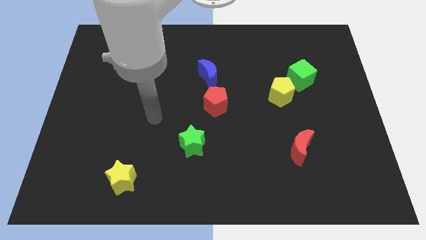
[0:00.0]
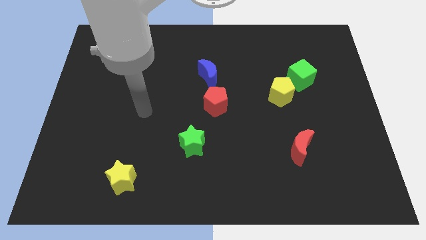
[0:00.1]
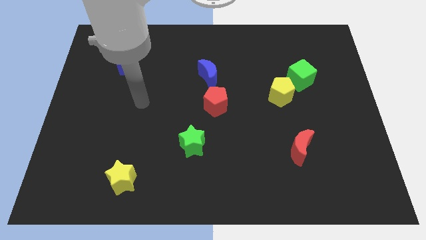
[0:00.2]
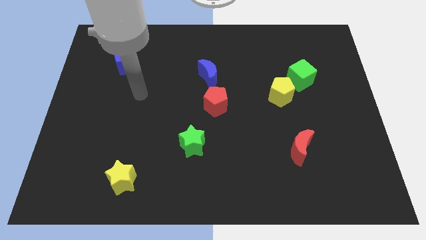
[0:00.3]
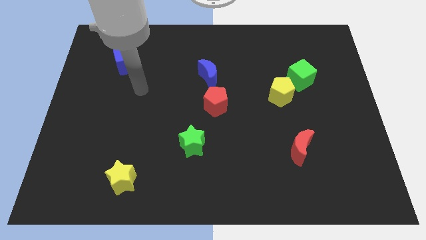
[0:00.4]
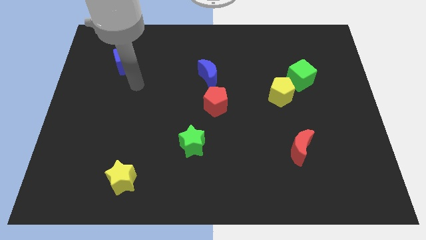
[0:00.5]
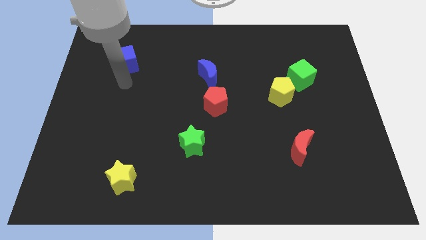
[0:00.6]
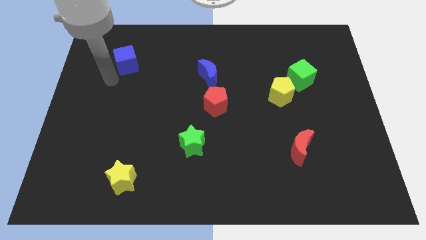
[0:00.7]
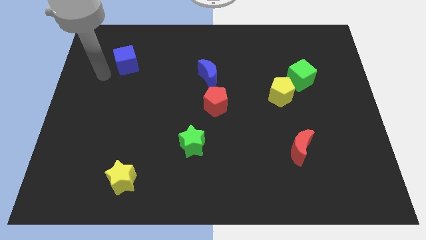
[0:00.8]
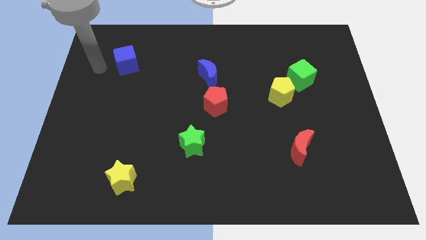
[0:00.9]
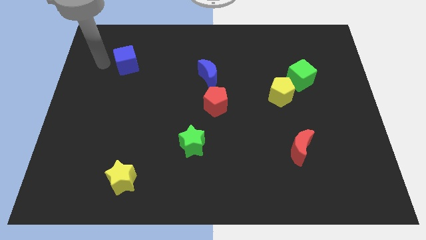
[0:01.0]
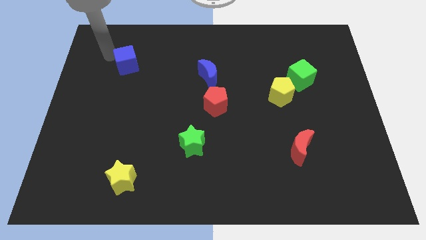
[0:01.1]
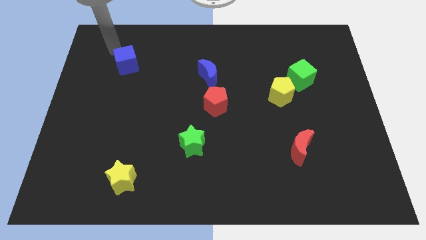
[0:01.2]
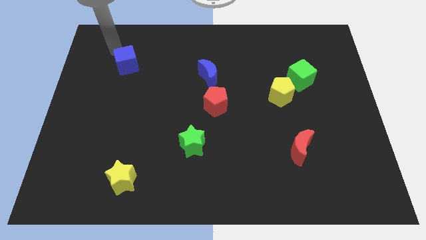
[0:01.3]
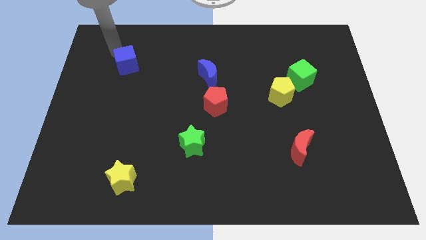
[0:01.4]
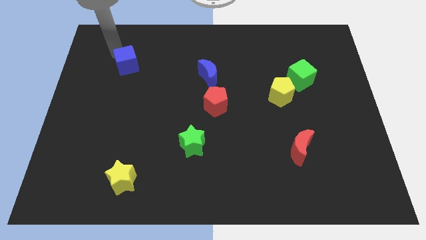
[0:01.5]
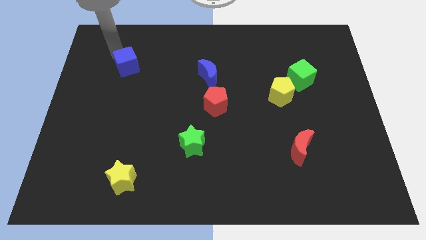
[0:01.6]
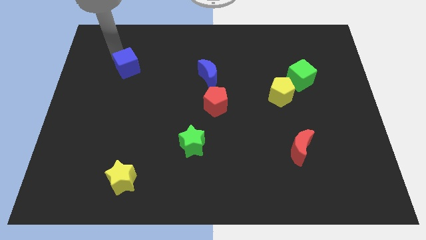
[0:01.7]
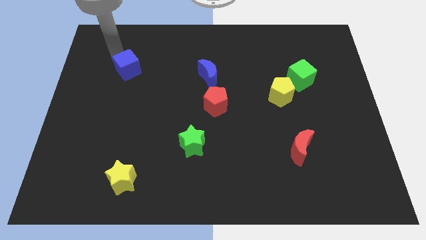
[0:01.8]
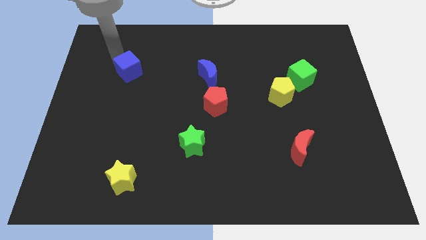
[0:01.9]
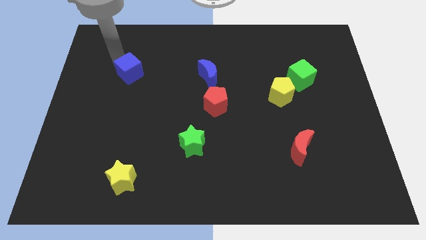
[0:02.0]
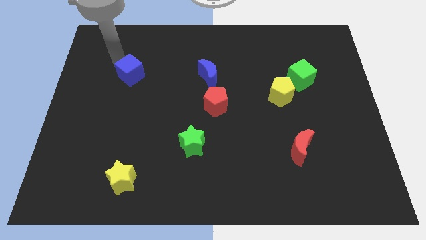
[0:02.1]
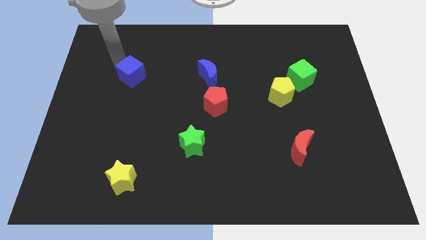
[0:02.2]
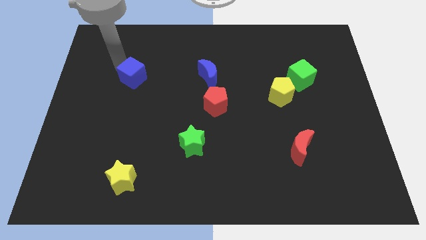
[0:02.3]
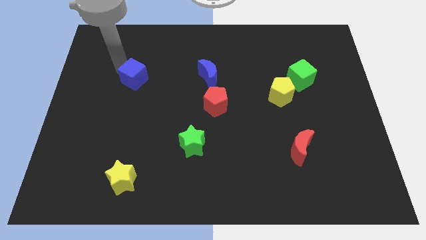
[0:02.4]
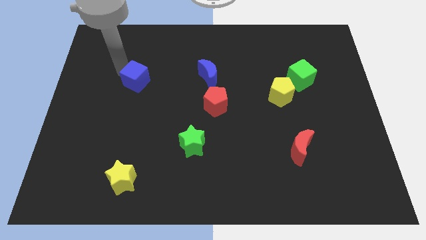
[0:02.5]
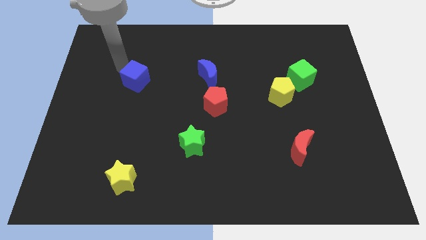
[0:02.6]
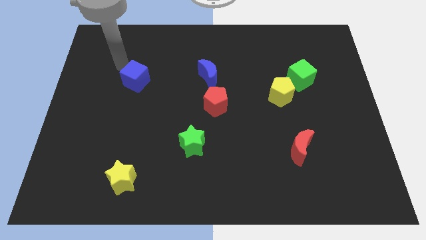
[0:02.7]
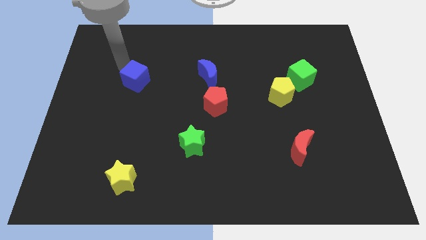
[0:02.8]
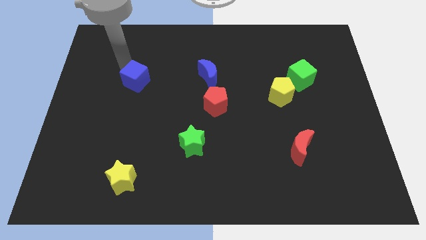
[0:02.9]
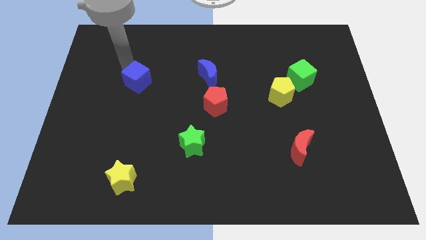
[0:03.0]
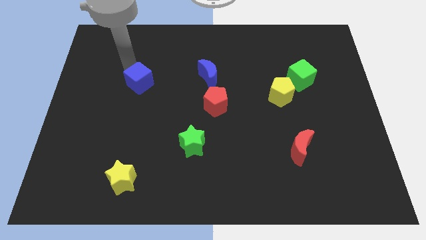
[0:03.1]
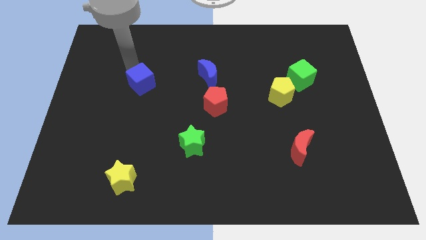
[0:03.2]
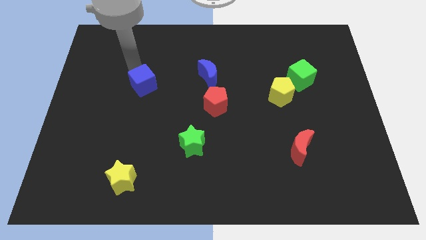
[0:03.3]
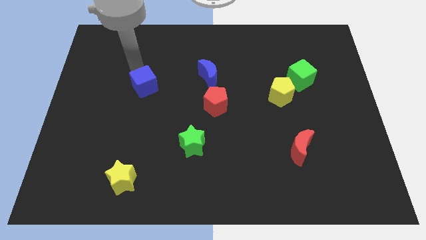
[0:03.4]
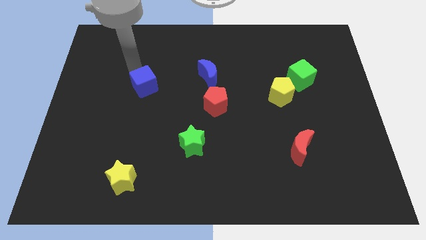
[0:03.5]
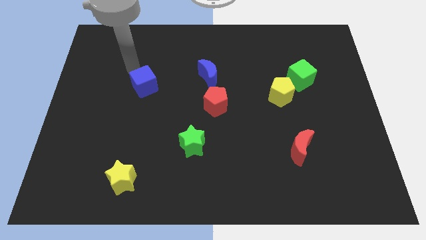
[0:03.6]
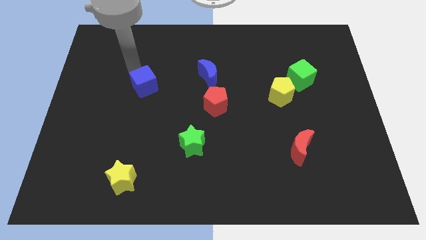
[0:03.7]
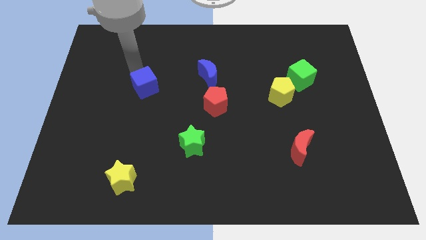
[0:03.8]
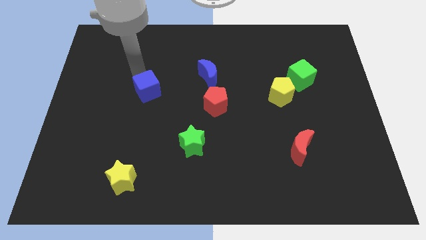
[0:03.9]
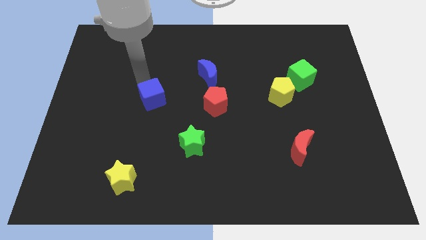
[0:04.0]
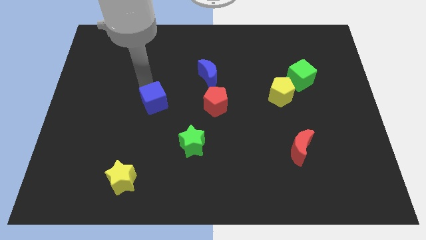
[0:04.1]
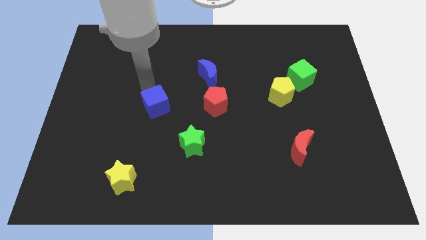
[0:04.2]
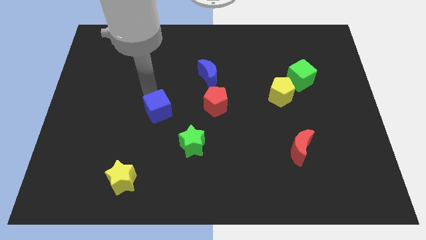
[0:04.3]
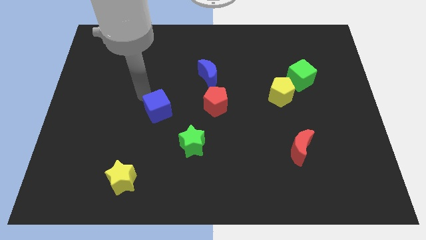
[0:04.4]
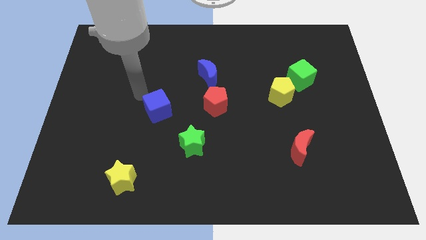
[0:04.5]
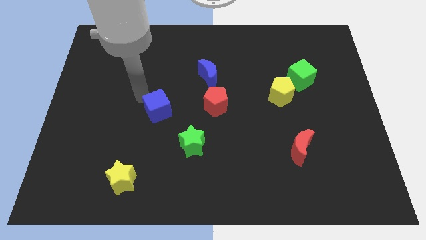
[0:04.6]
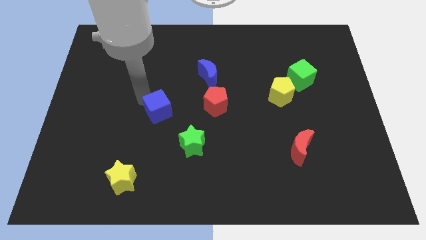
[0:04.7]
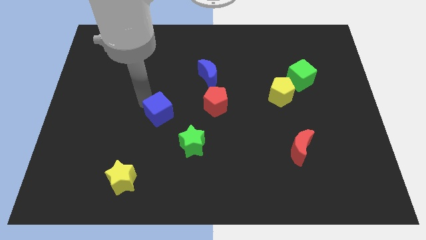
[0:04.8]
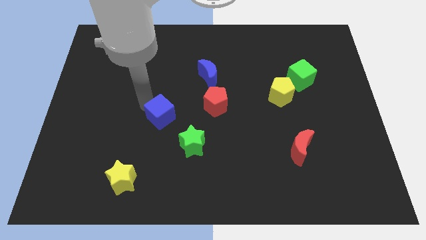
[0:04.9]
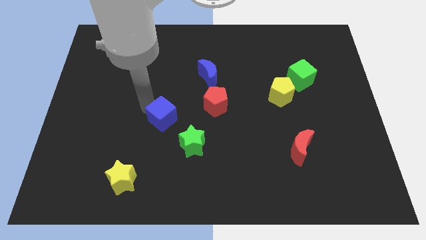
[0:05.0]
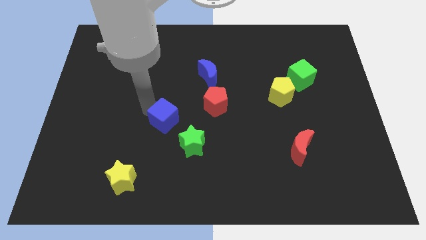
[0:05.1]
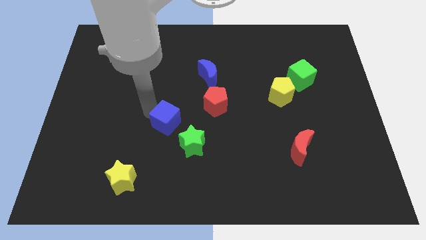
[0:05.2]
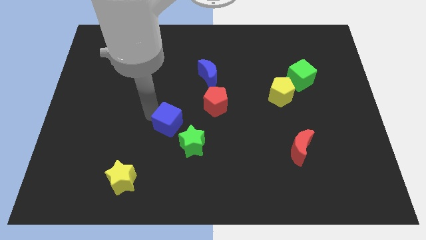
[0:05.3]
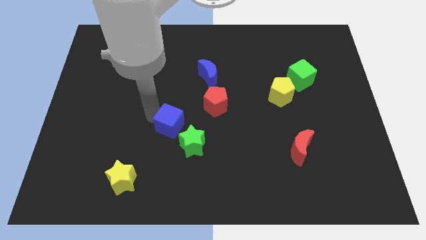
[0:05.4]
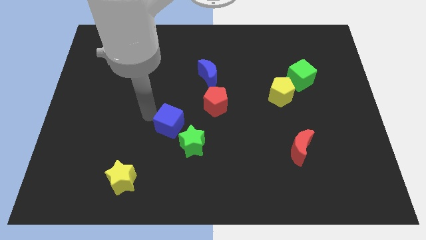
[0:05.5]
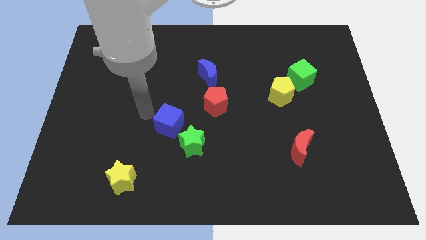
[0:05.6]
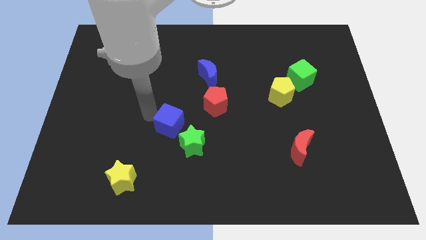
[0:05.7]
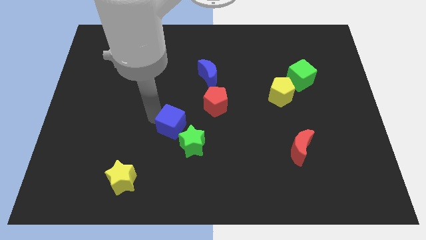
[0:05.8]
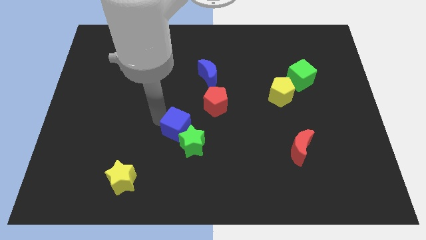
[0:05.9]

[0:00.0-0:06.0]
slide the blue cube close to the green star

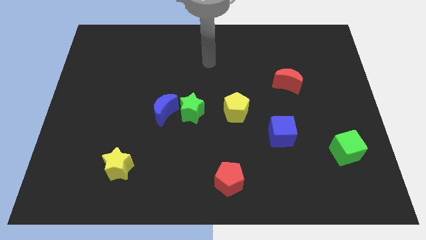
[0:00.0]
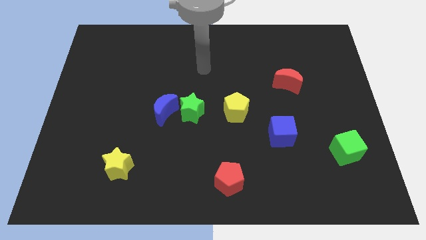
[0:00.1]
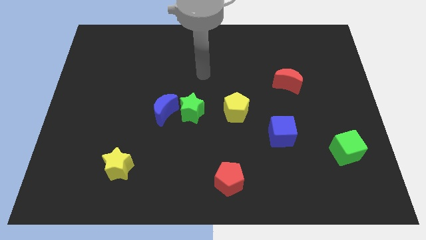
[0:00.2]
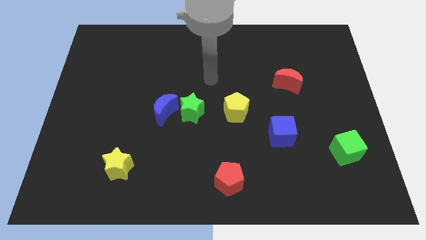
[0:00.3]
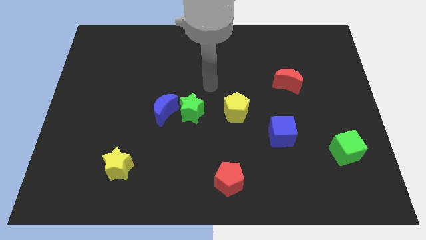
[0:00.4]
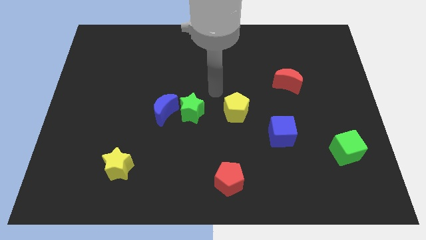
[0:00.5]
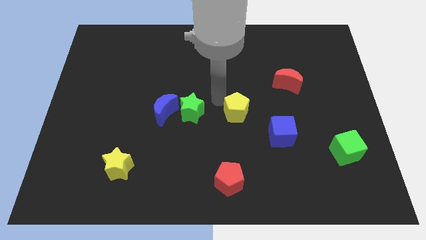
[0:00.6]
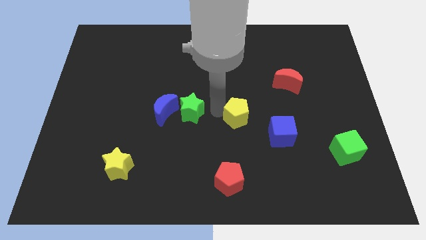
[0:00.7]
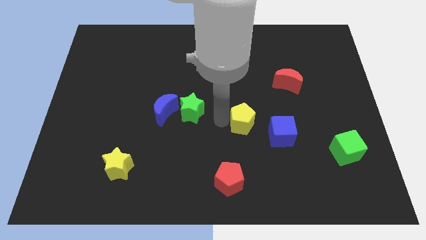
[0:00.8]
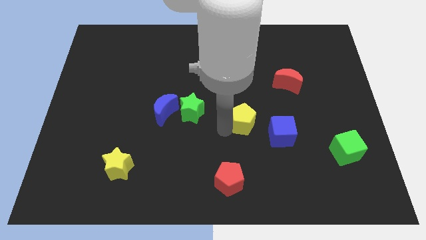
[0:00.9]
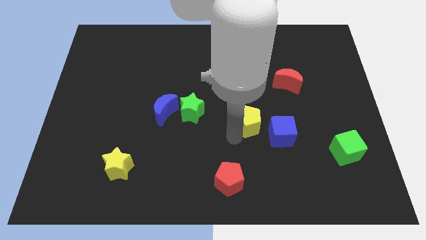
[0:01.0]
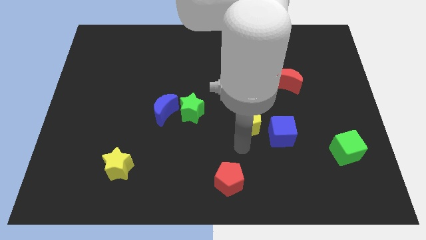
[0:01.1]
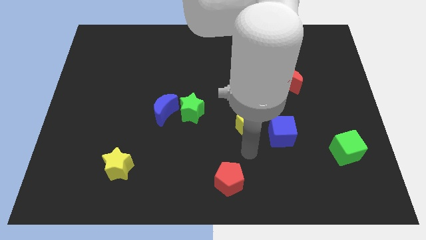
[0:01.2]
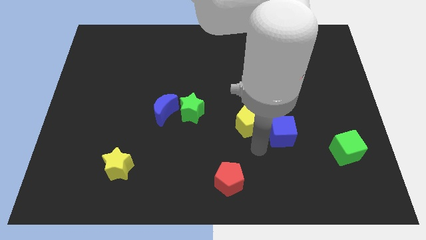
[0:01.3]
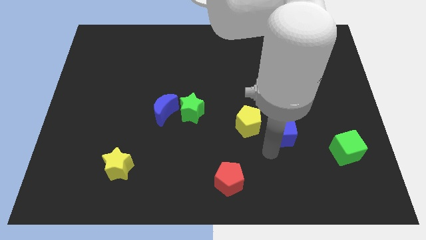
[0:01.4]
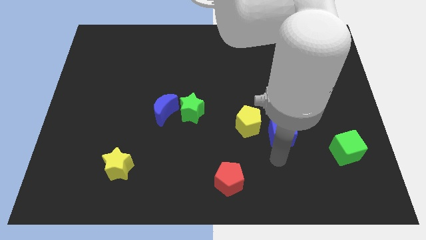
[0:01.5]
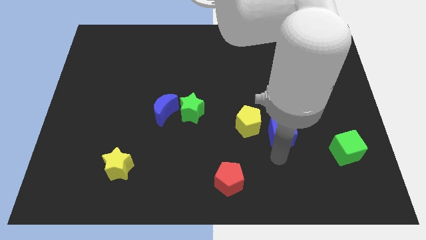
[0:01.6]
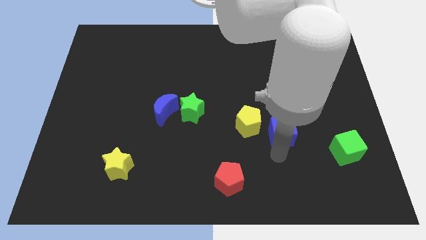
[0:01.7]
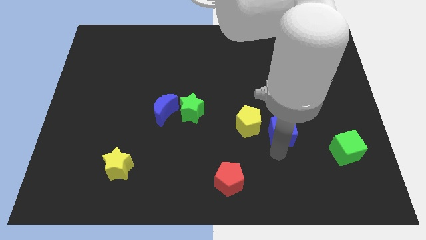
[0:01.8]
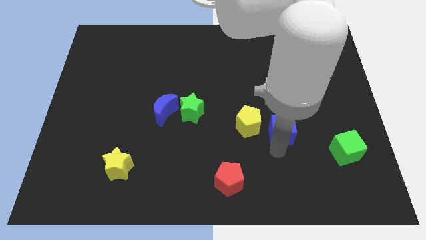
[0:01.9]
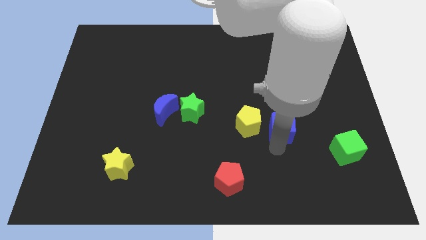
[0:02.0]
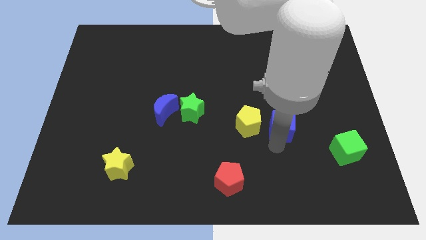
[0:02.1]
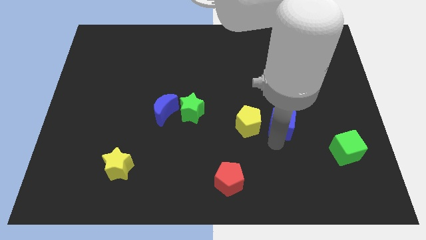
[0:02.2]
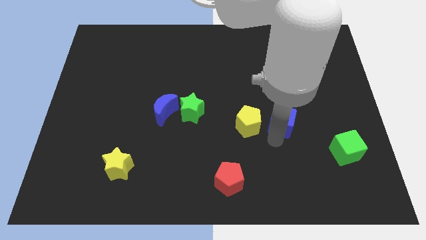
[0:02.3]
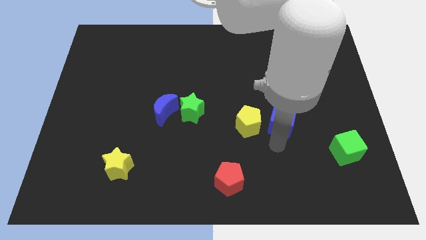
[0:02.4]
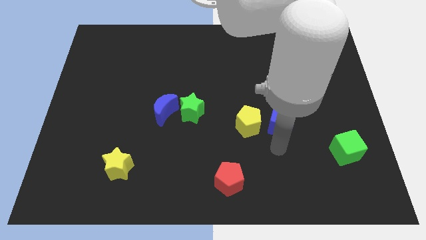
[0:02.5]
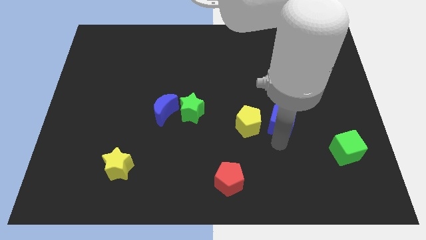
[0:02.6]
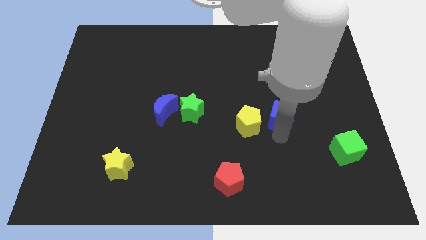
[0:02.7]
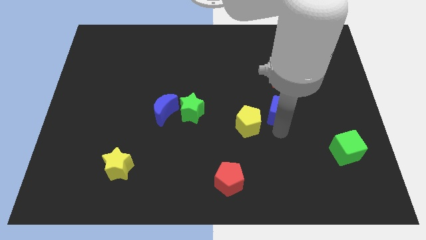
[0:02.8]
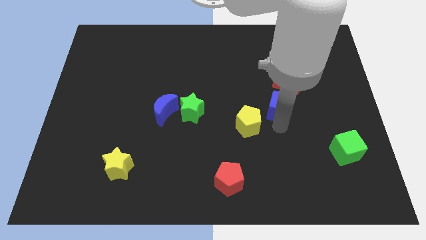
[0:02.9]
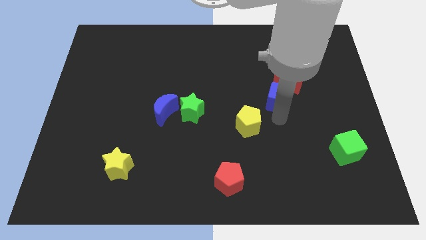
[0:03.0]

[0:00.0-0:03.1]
put the blue cube close to the red moon
